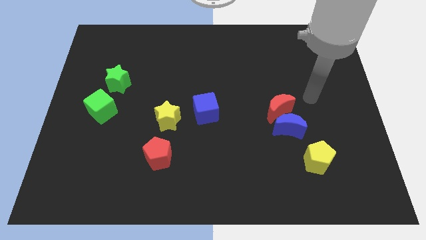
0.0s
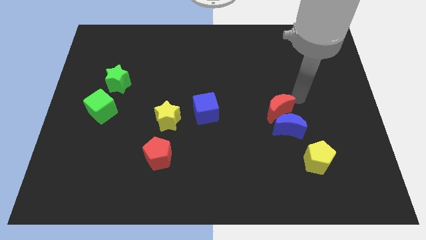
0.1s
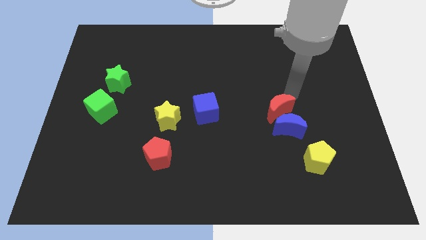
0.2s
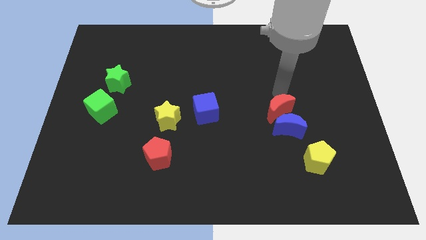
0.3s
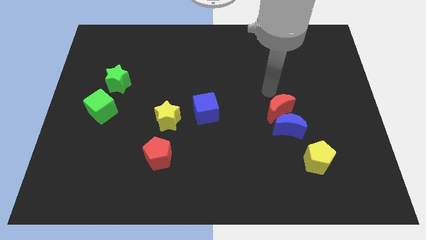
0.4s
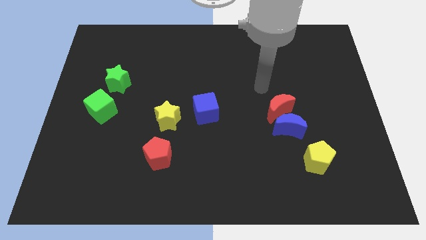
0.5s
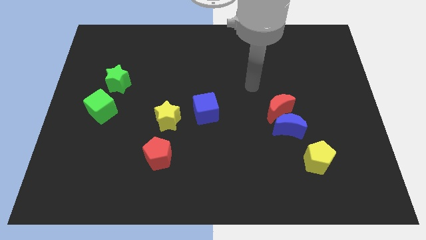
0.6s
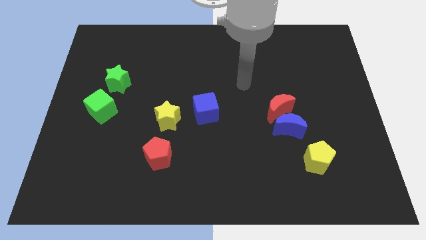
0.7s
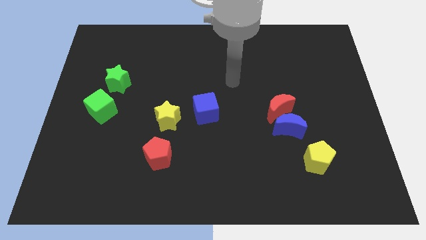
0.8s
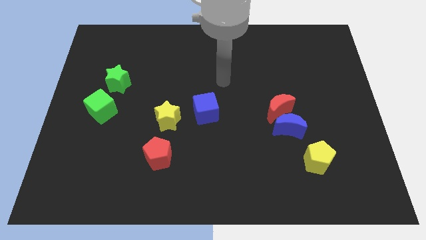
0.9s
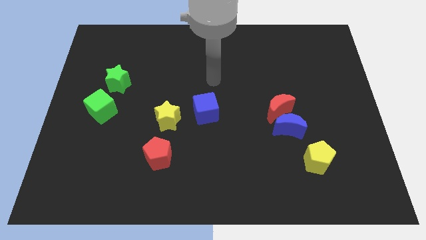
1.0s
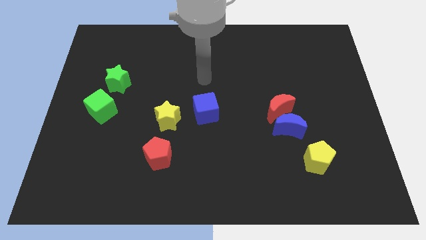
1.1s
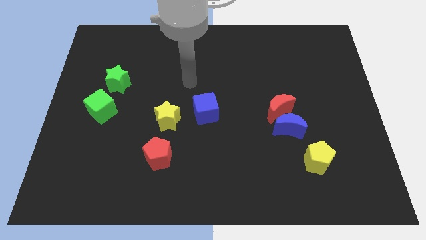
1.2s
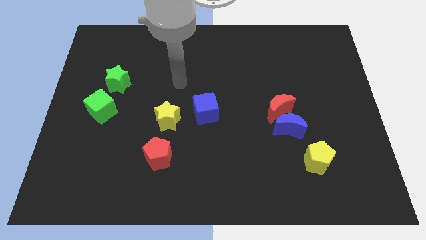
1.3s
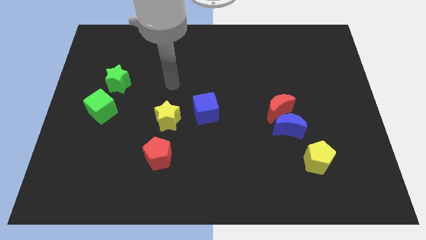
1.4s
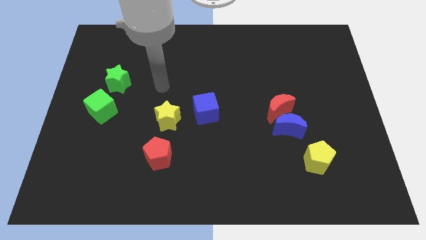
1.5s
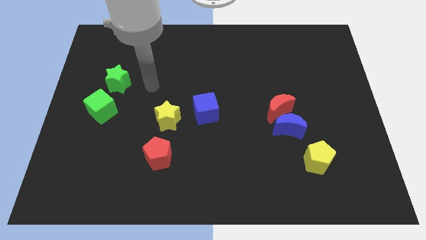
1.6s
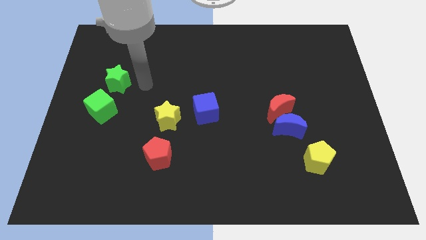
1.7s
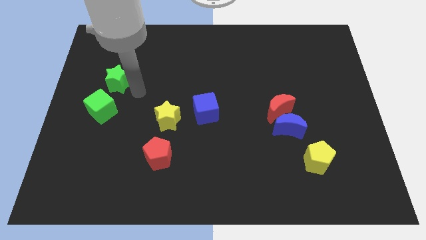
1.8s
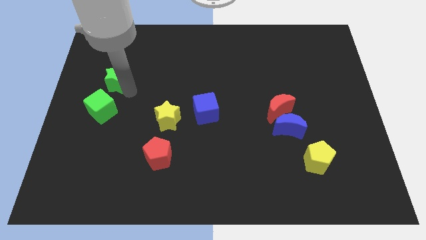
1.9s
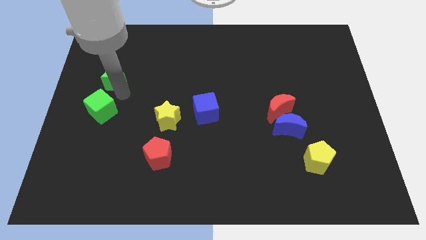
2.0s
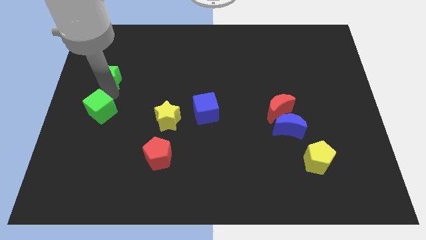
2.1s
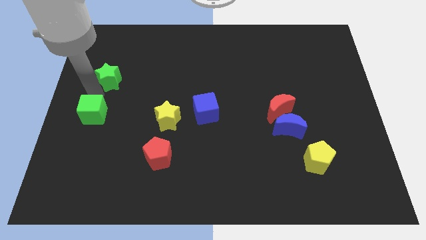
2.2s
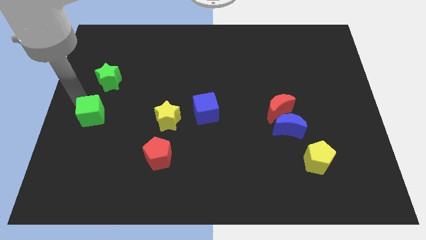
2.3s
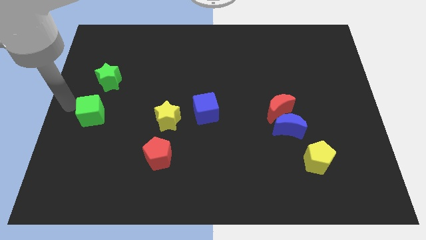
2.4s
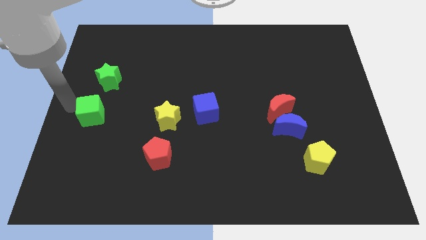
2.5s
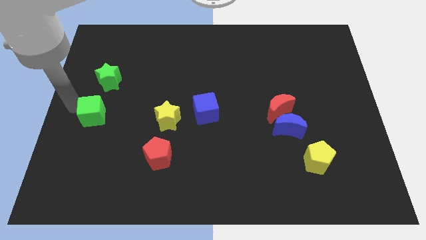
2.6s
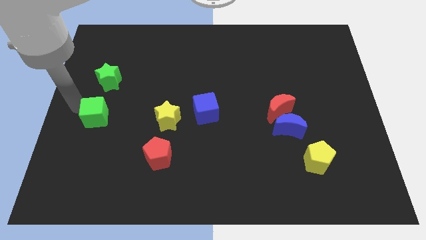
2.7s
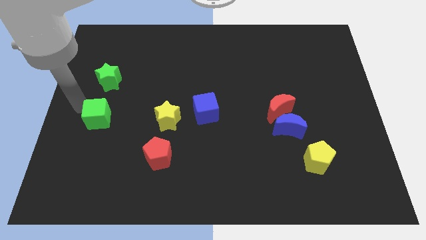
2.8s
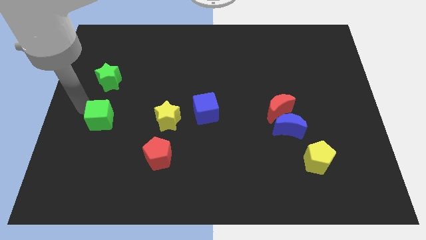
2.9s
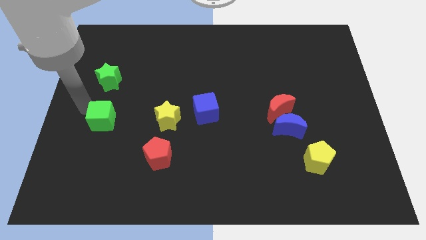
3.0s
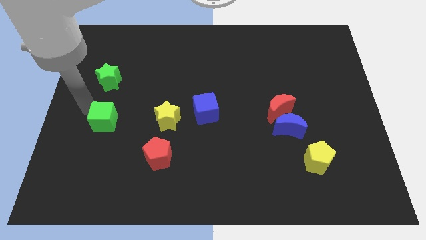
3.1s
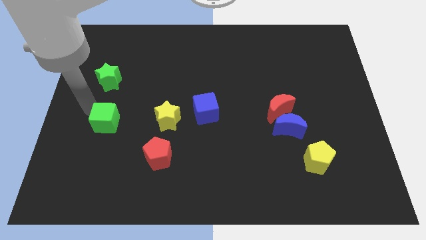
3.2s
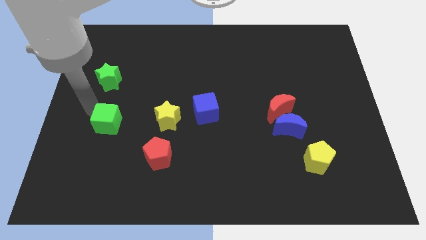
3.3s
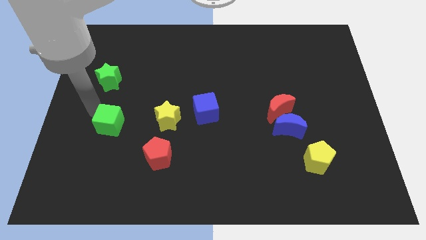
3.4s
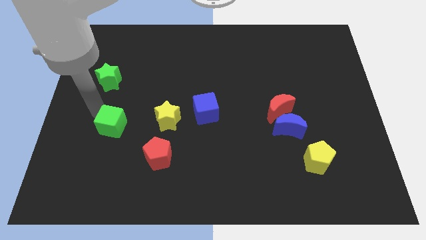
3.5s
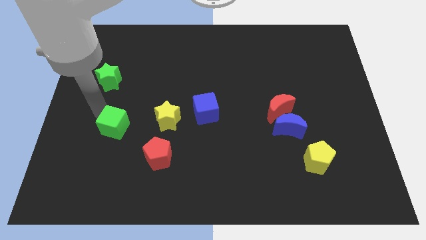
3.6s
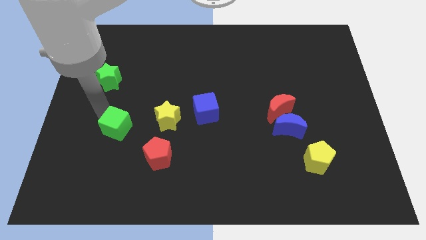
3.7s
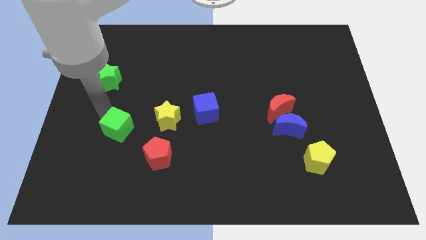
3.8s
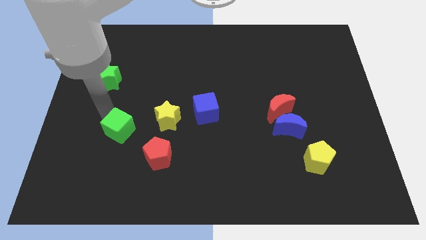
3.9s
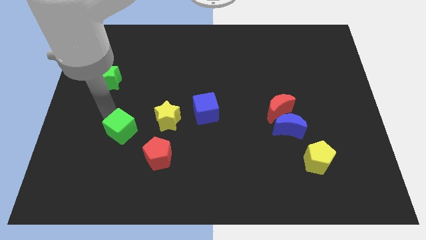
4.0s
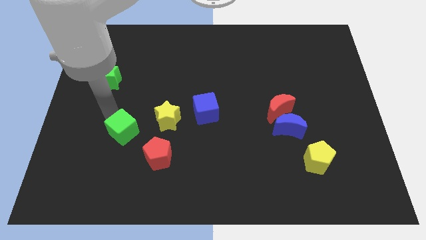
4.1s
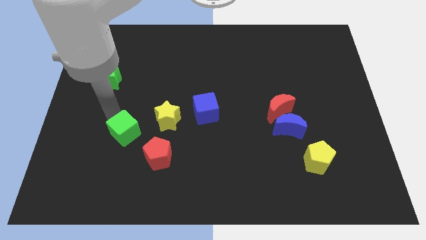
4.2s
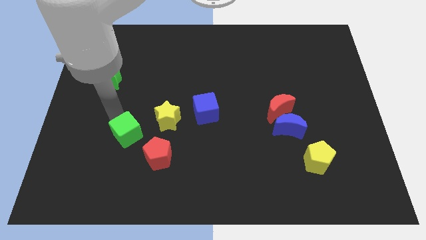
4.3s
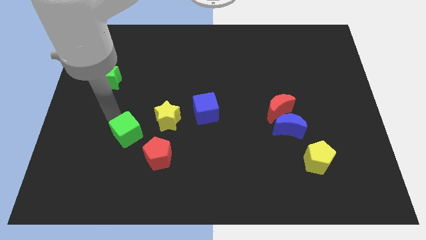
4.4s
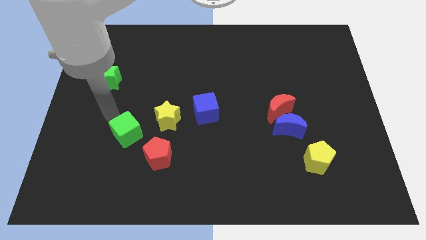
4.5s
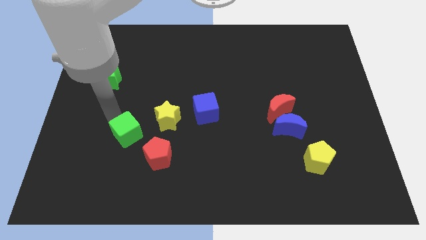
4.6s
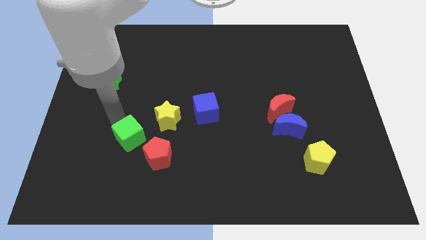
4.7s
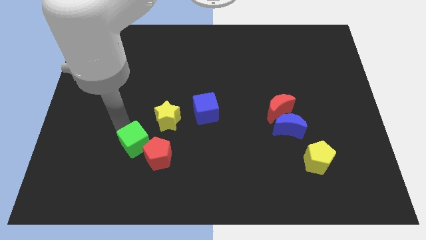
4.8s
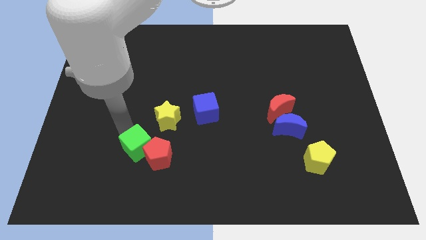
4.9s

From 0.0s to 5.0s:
slide the green cube close to the red pentagon

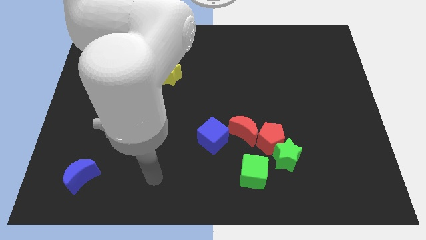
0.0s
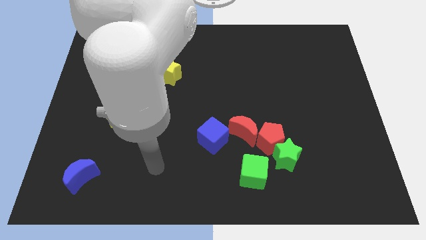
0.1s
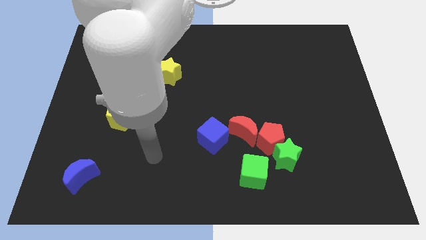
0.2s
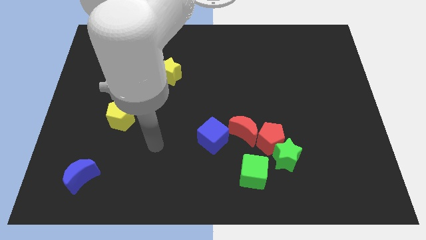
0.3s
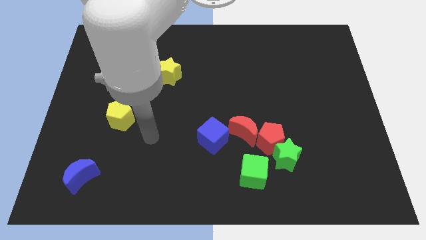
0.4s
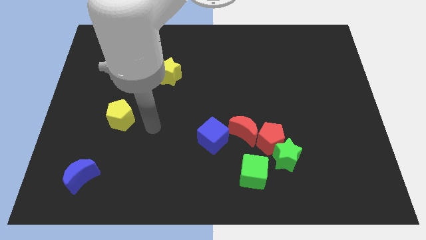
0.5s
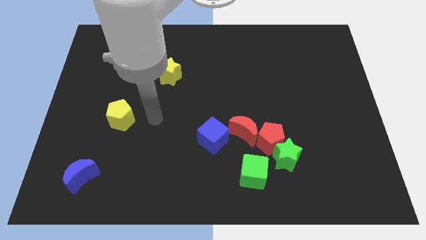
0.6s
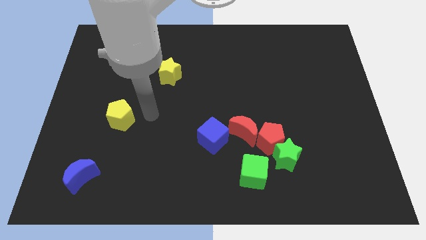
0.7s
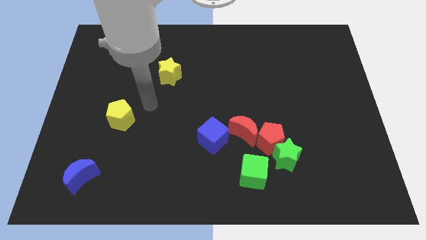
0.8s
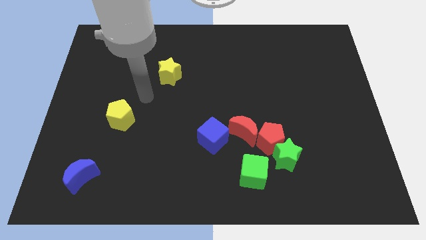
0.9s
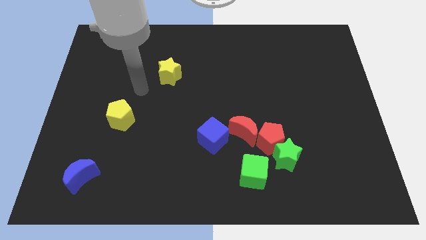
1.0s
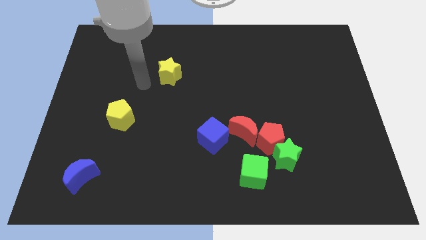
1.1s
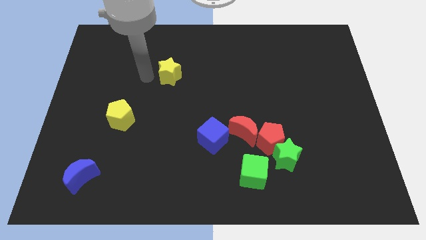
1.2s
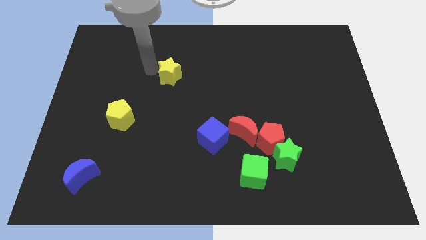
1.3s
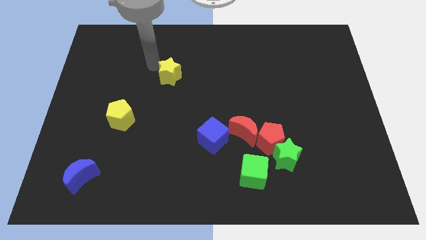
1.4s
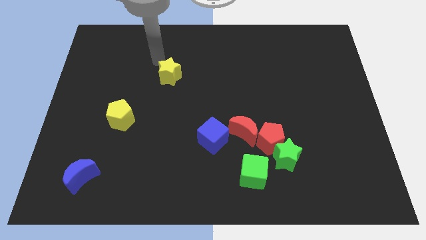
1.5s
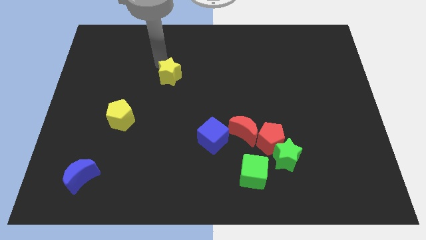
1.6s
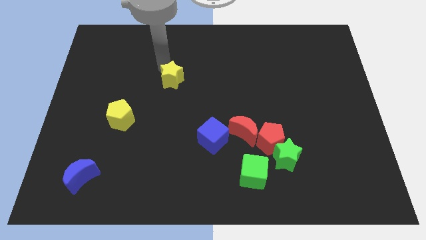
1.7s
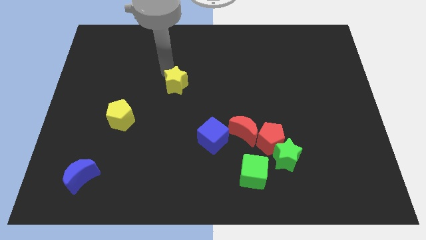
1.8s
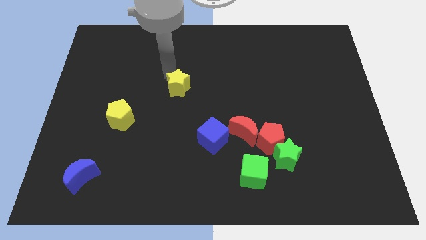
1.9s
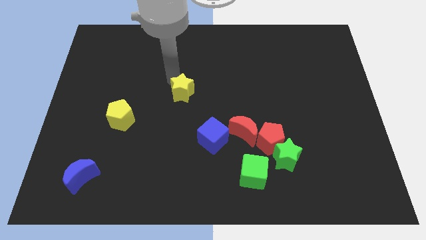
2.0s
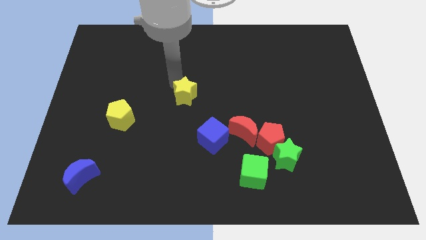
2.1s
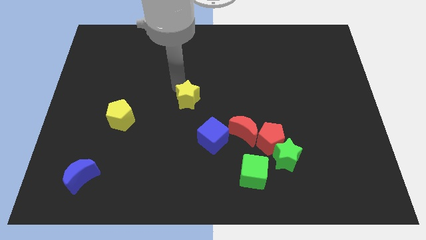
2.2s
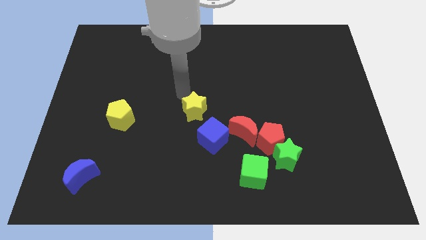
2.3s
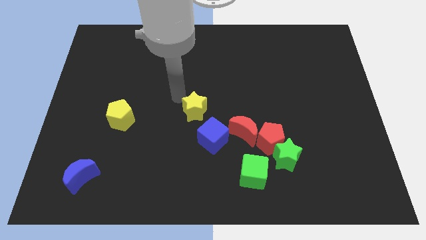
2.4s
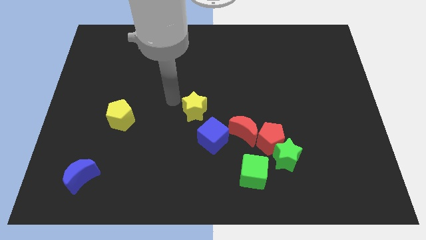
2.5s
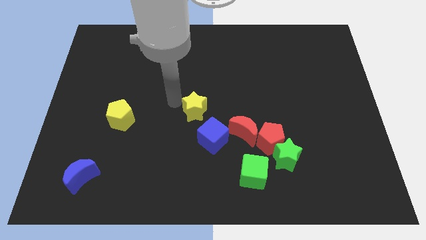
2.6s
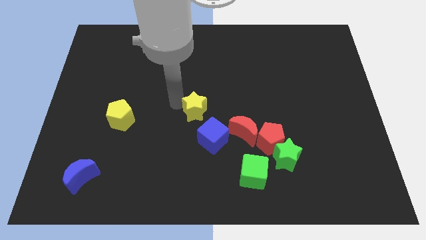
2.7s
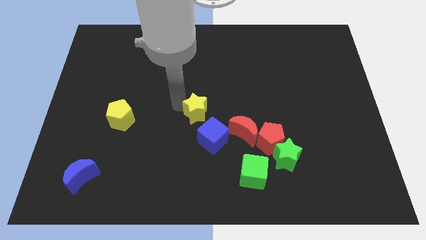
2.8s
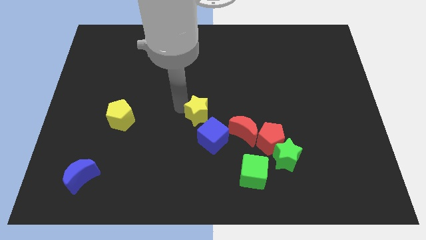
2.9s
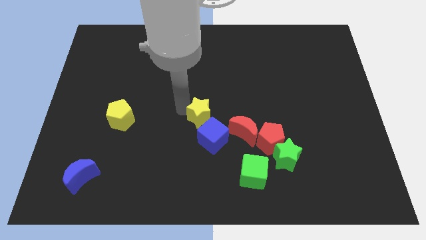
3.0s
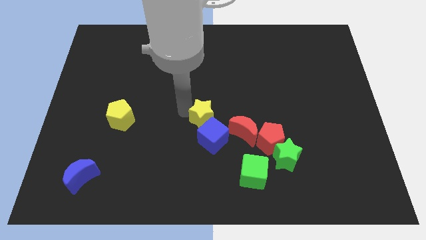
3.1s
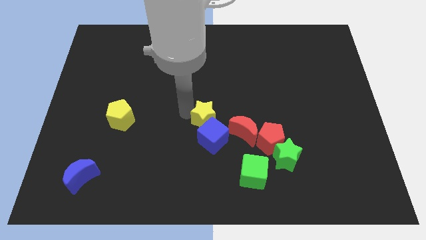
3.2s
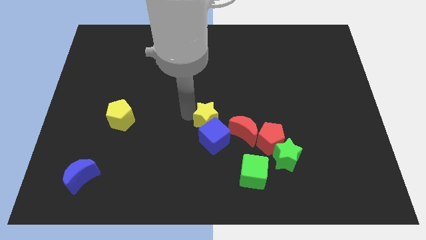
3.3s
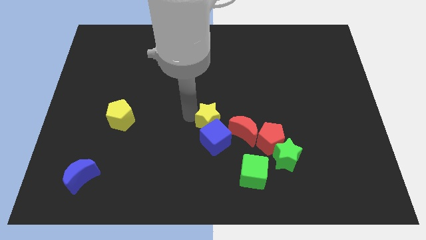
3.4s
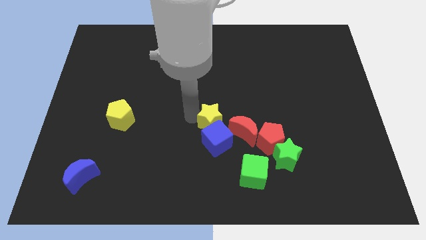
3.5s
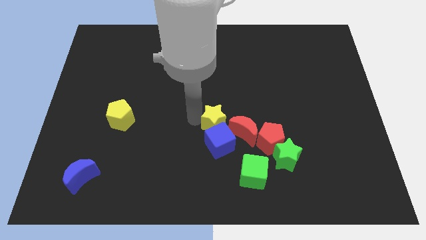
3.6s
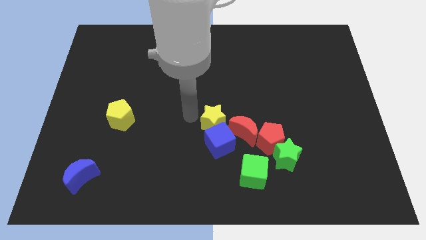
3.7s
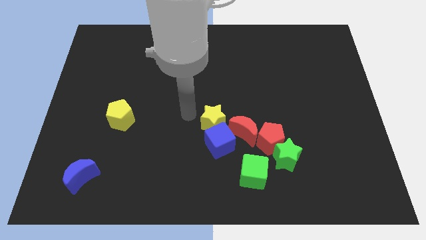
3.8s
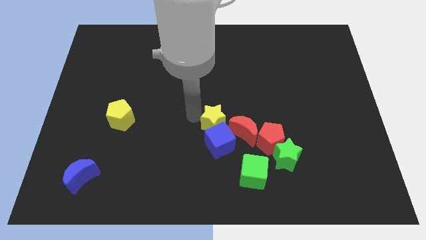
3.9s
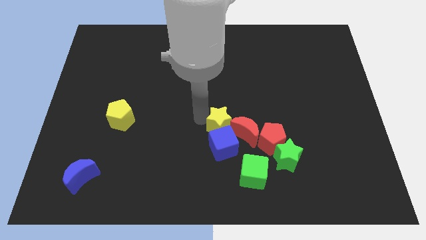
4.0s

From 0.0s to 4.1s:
slide the yellow star close to the red moon
